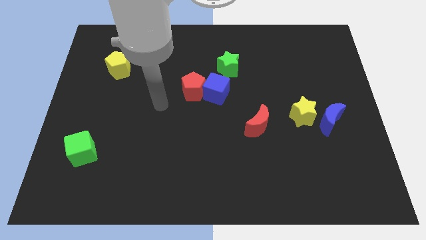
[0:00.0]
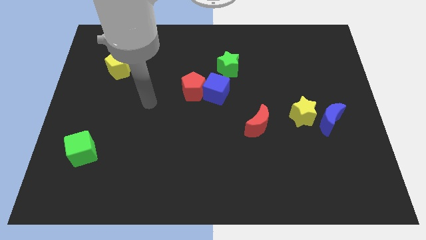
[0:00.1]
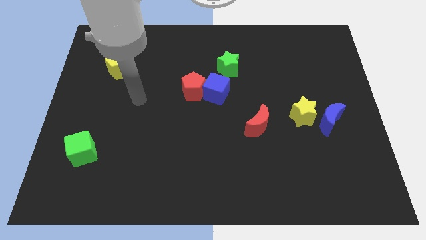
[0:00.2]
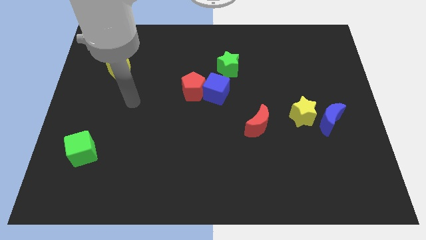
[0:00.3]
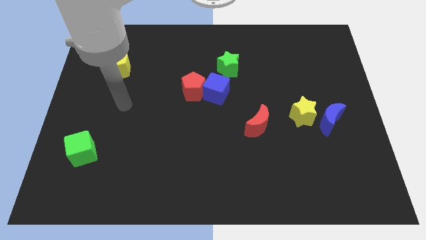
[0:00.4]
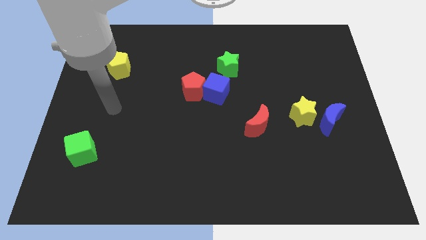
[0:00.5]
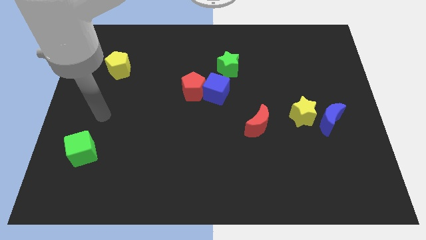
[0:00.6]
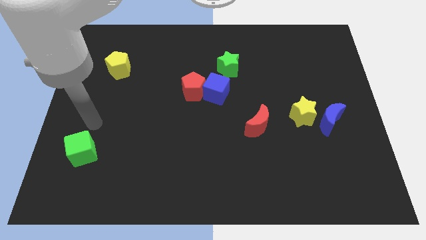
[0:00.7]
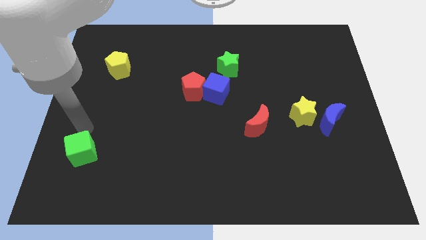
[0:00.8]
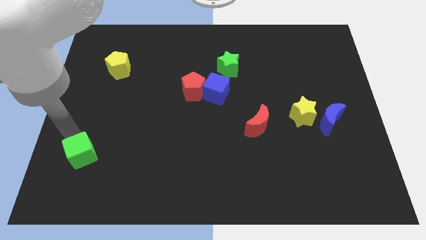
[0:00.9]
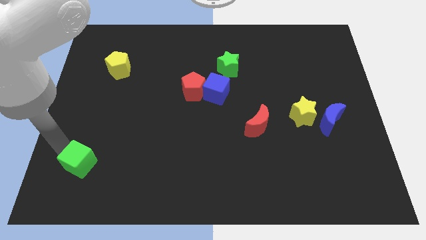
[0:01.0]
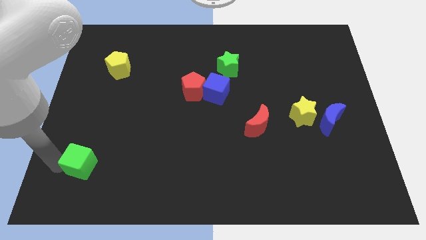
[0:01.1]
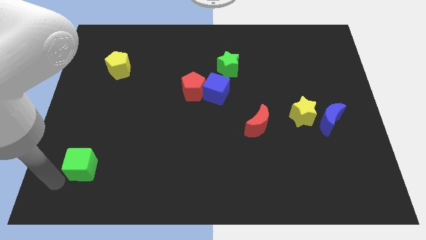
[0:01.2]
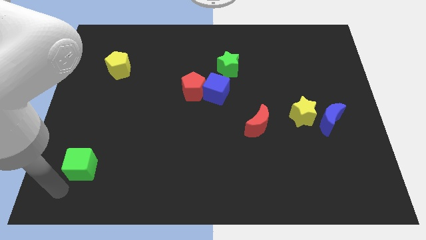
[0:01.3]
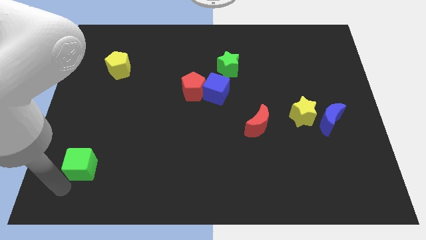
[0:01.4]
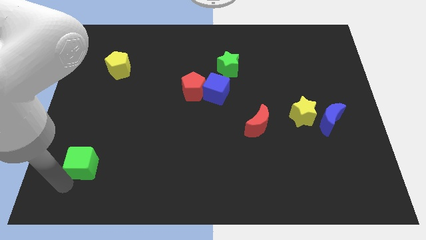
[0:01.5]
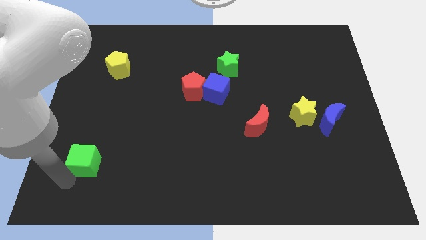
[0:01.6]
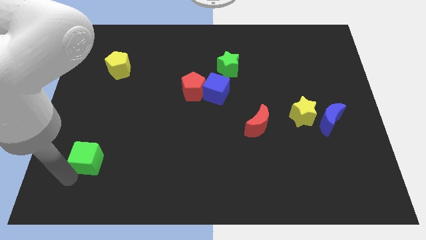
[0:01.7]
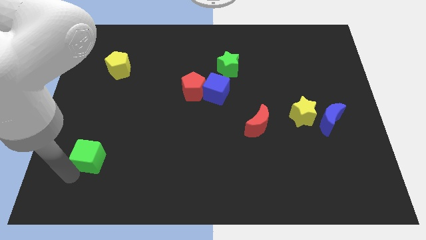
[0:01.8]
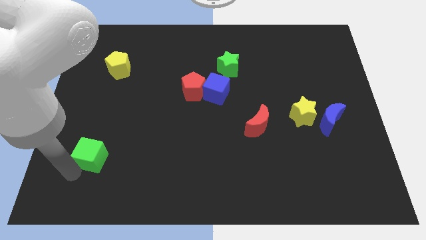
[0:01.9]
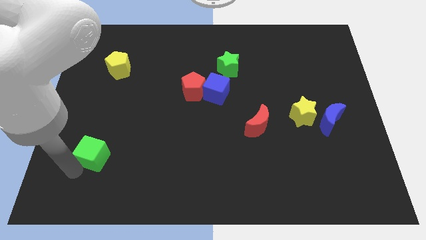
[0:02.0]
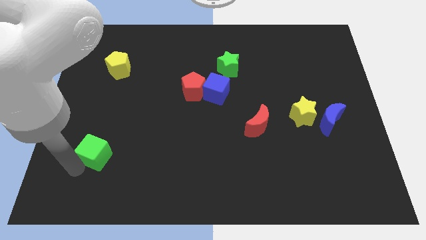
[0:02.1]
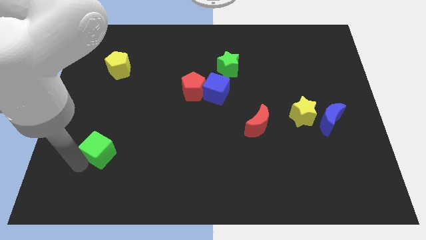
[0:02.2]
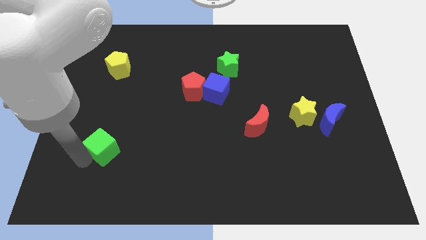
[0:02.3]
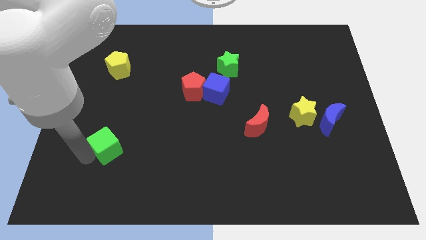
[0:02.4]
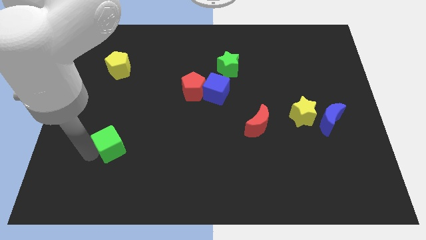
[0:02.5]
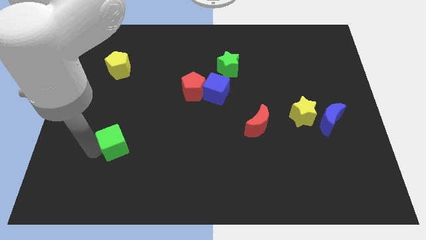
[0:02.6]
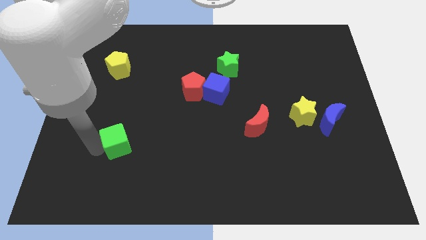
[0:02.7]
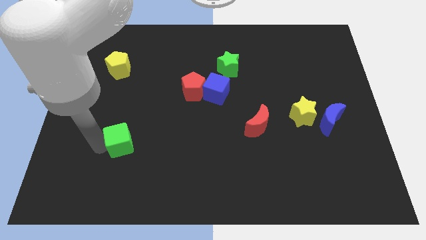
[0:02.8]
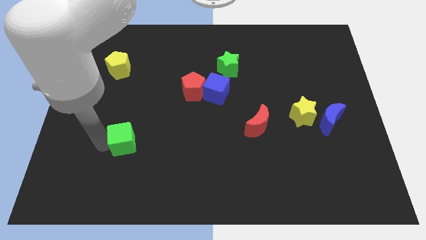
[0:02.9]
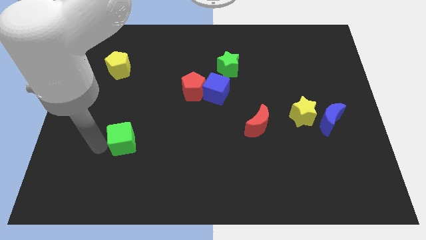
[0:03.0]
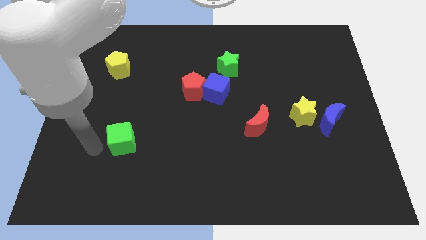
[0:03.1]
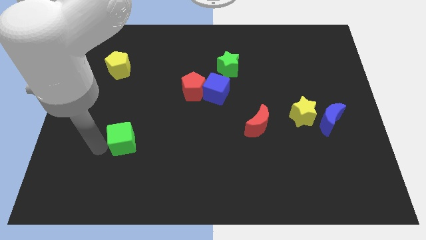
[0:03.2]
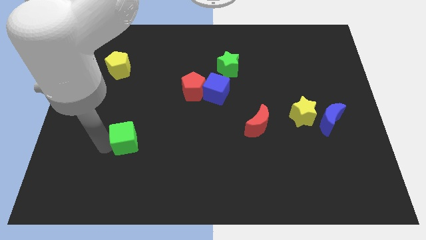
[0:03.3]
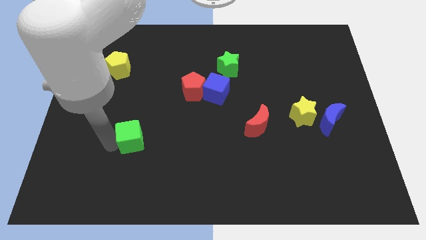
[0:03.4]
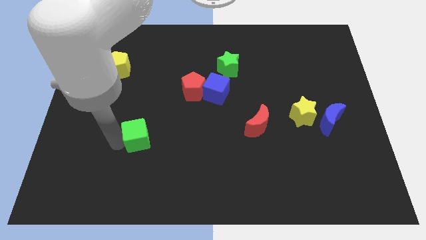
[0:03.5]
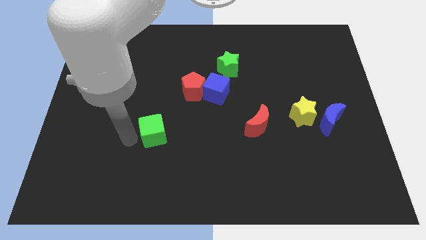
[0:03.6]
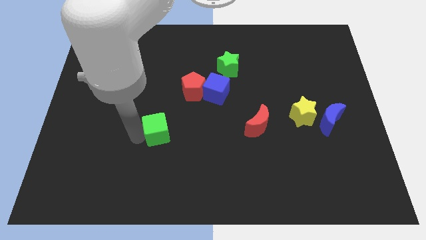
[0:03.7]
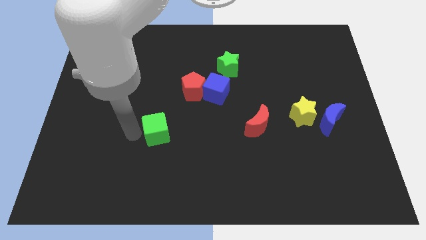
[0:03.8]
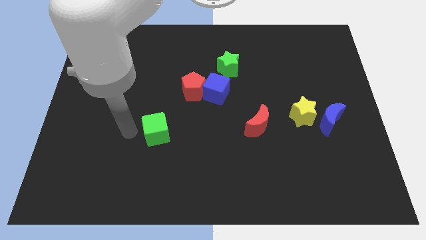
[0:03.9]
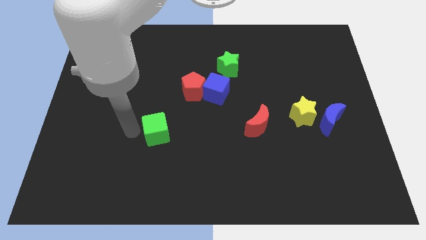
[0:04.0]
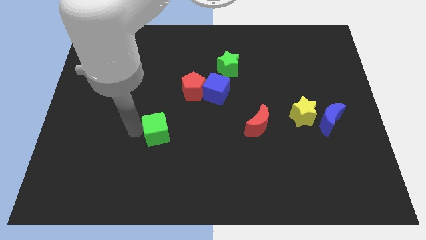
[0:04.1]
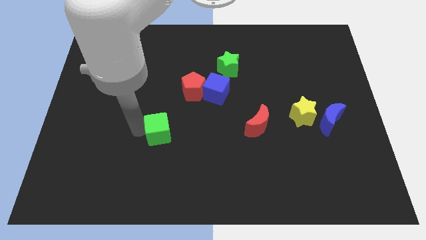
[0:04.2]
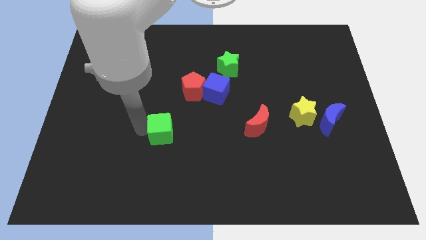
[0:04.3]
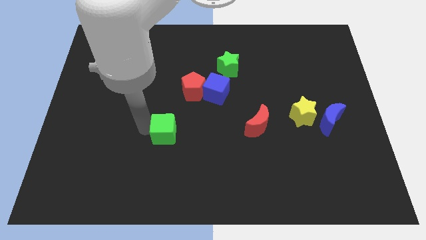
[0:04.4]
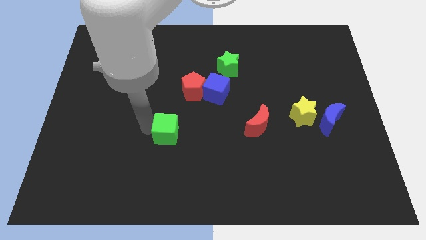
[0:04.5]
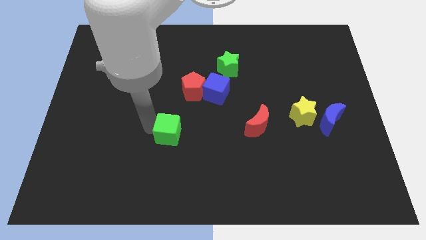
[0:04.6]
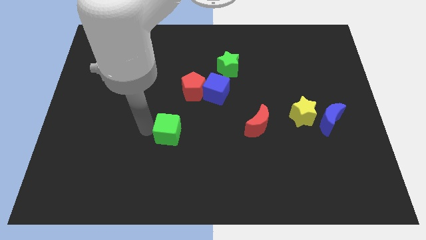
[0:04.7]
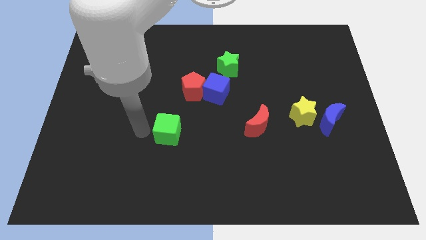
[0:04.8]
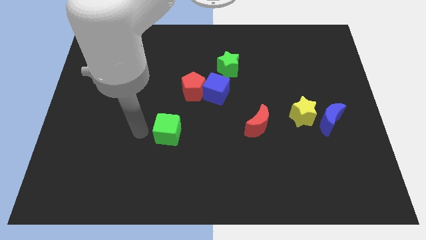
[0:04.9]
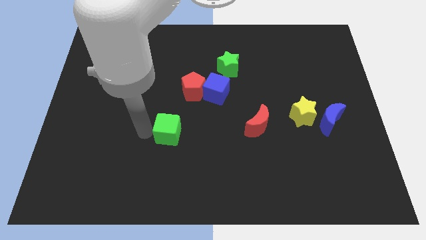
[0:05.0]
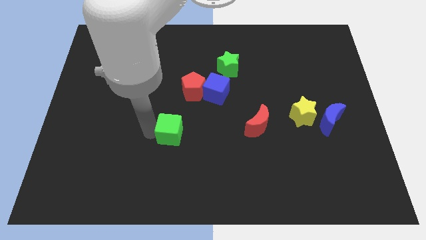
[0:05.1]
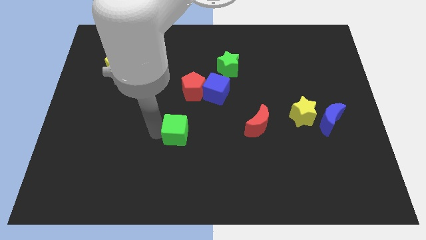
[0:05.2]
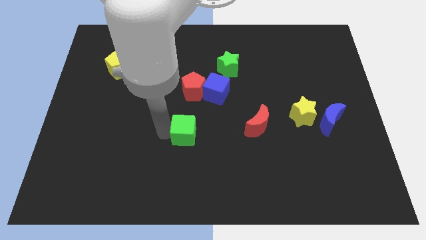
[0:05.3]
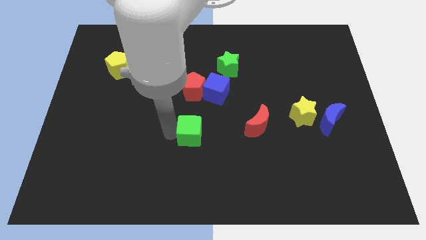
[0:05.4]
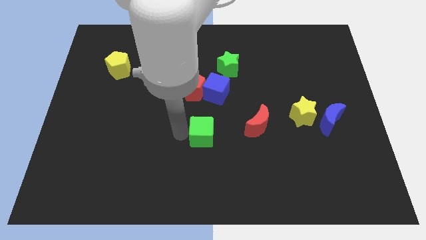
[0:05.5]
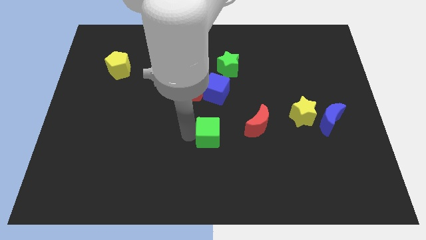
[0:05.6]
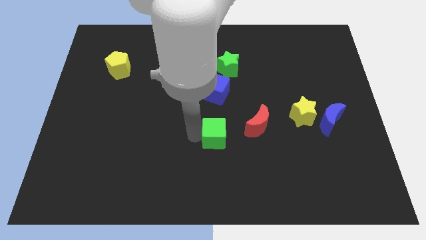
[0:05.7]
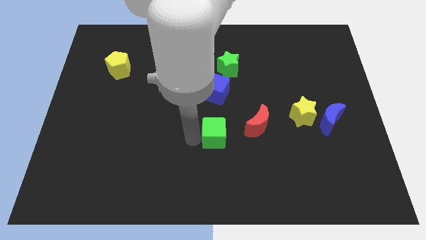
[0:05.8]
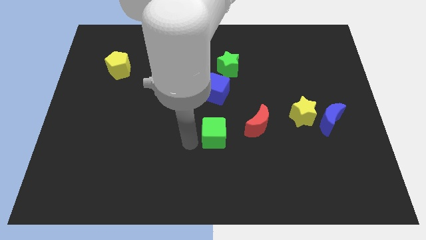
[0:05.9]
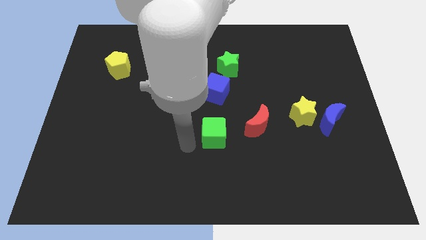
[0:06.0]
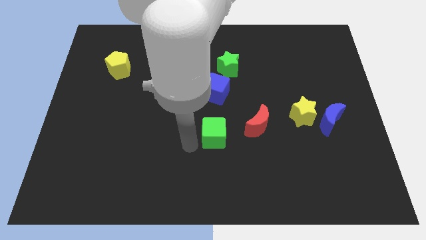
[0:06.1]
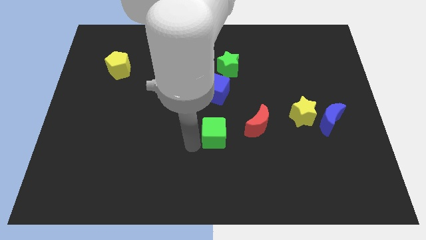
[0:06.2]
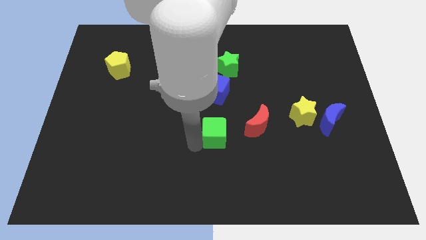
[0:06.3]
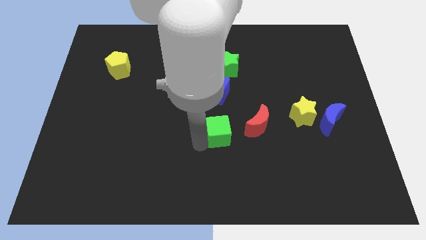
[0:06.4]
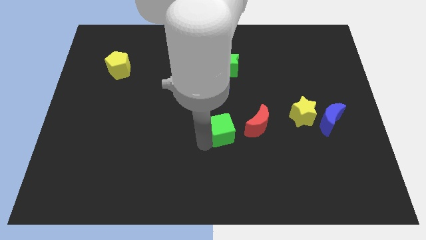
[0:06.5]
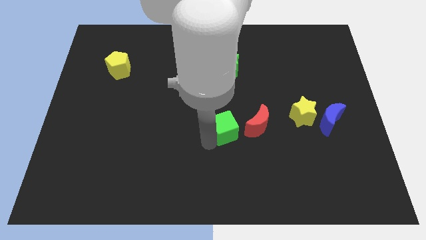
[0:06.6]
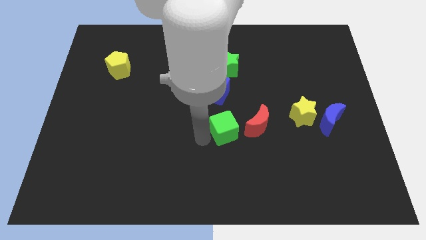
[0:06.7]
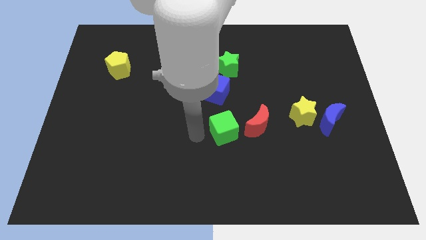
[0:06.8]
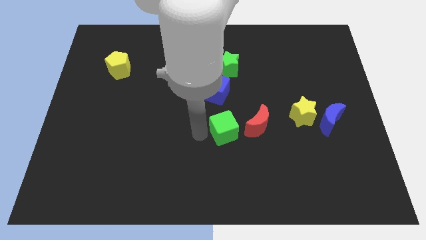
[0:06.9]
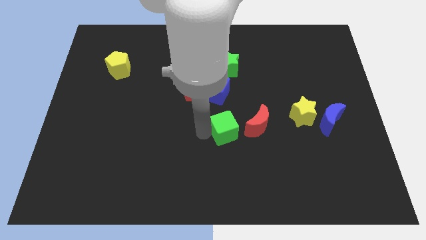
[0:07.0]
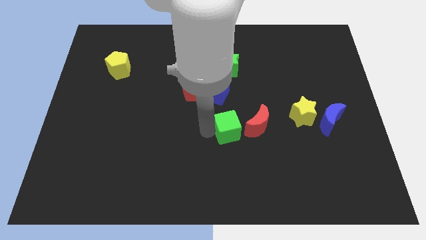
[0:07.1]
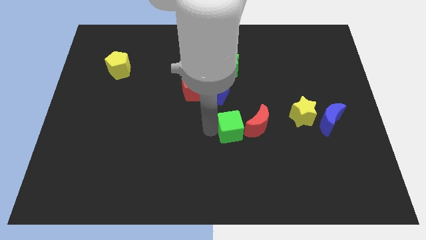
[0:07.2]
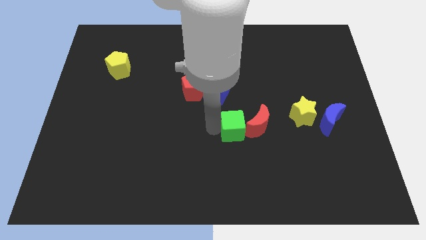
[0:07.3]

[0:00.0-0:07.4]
move the green cube to the red moon

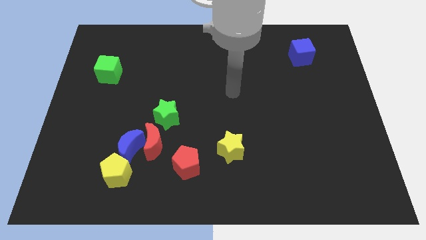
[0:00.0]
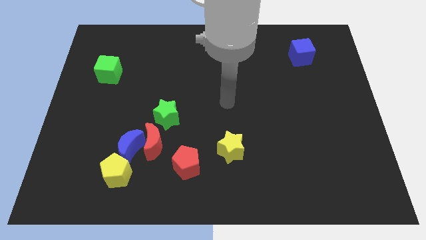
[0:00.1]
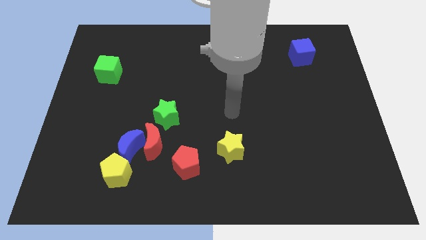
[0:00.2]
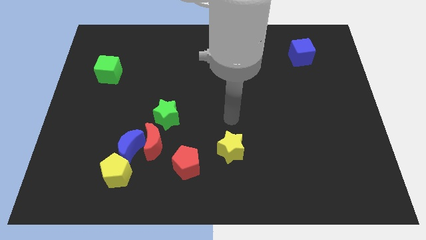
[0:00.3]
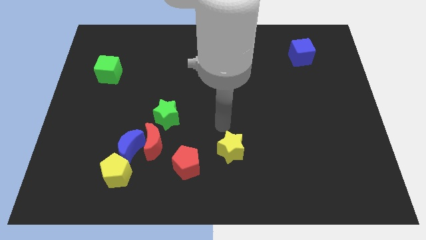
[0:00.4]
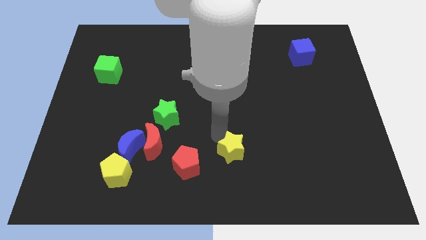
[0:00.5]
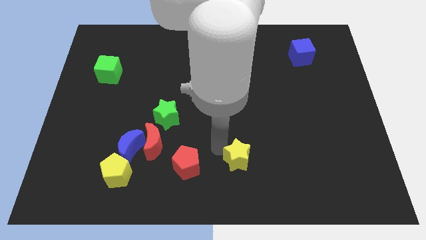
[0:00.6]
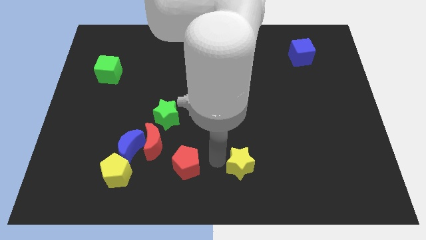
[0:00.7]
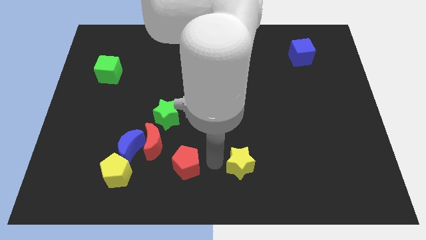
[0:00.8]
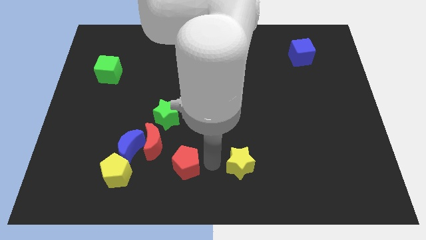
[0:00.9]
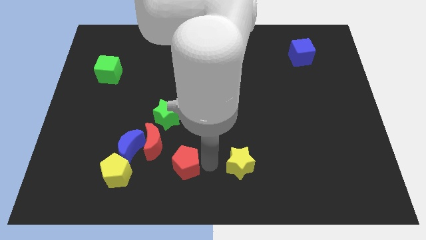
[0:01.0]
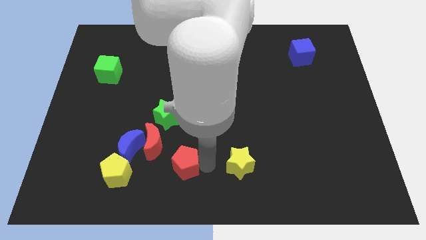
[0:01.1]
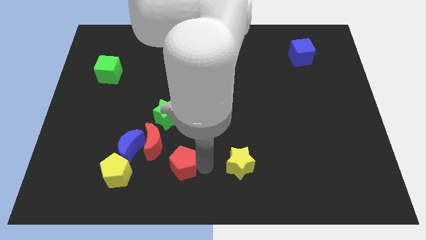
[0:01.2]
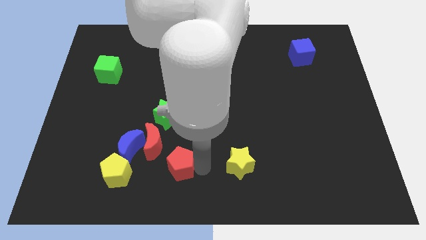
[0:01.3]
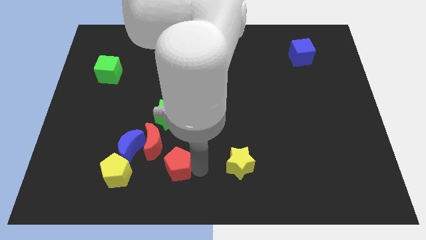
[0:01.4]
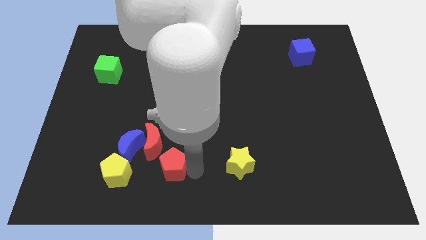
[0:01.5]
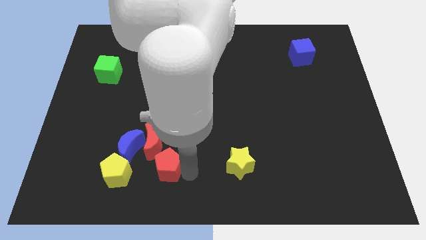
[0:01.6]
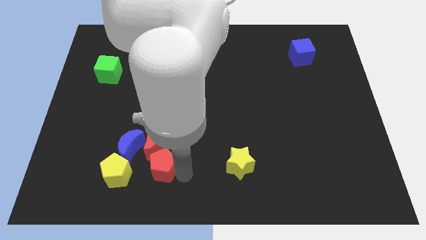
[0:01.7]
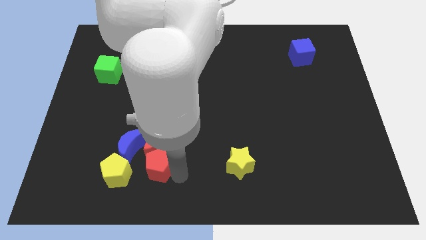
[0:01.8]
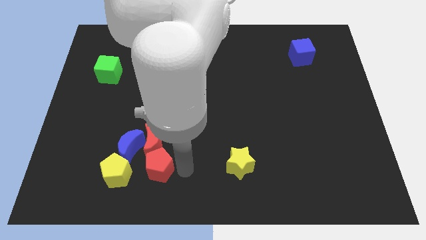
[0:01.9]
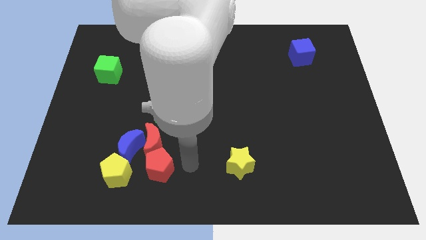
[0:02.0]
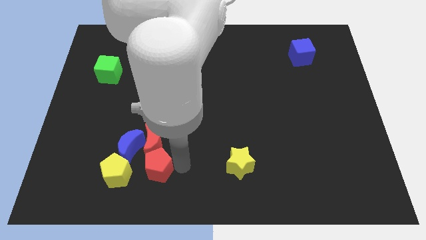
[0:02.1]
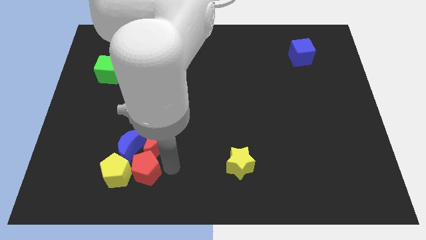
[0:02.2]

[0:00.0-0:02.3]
push the red pentagon towards the yellow pentagon
